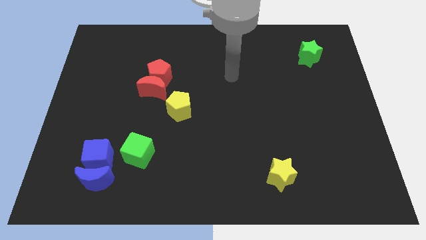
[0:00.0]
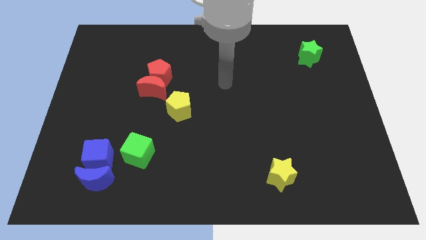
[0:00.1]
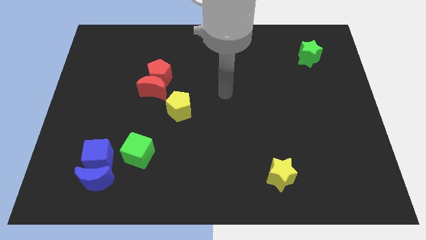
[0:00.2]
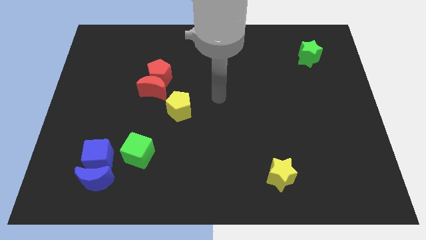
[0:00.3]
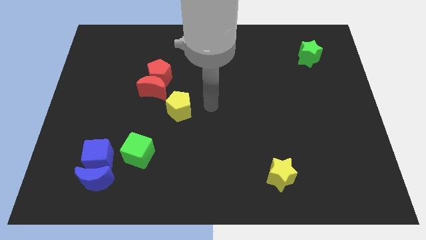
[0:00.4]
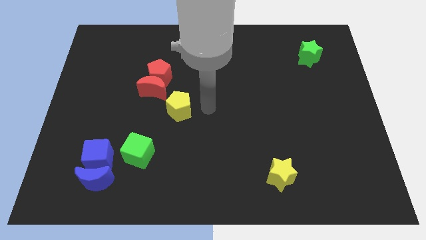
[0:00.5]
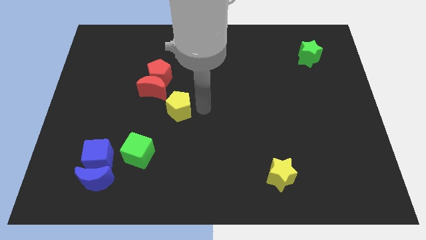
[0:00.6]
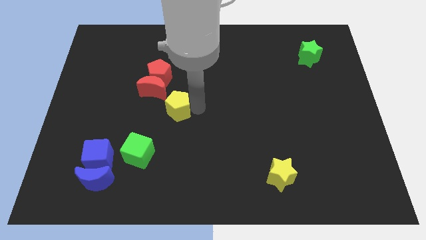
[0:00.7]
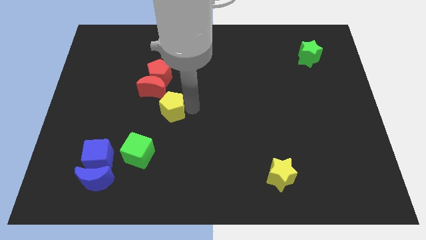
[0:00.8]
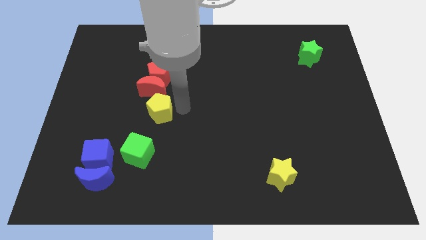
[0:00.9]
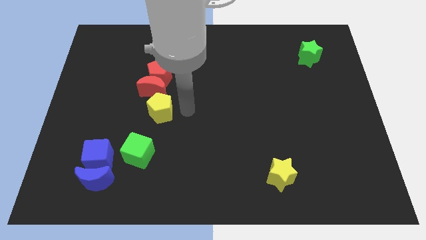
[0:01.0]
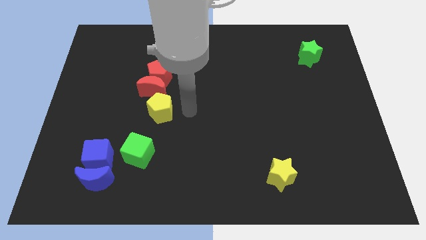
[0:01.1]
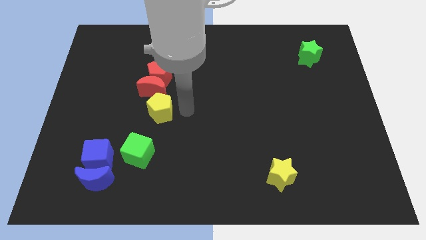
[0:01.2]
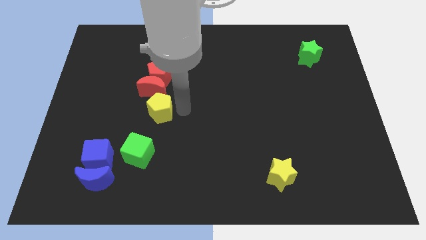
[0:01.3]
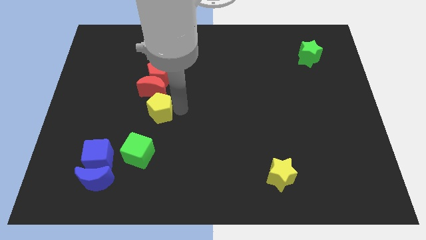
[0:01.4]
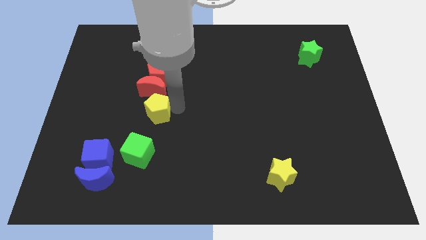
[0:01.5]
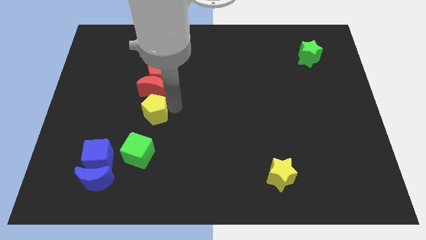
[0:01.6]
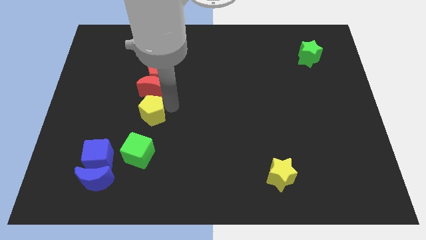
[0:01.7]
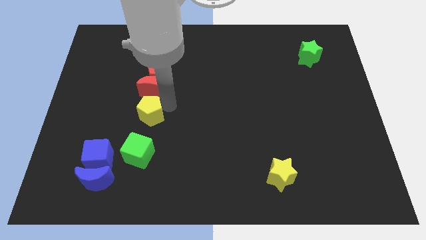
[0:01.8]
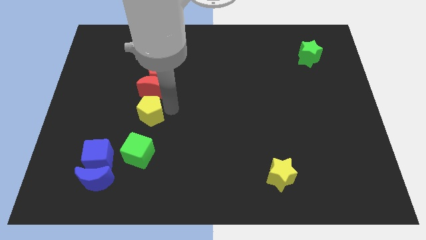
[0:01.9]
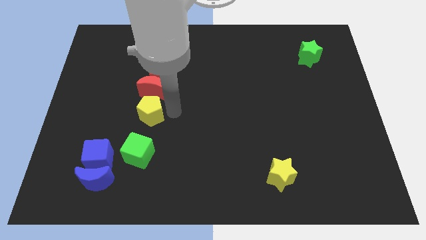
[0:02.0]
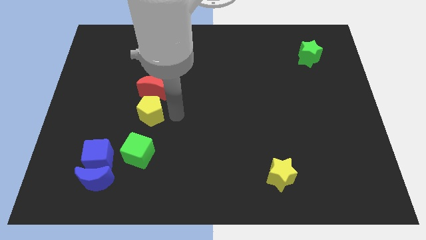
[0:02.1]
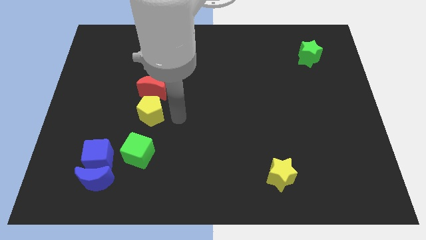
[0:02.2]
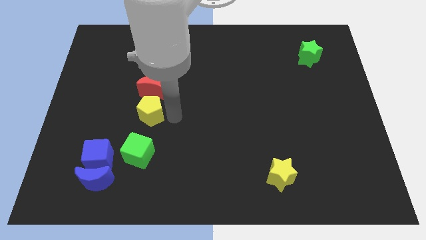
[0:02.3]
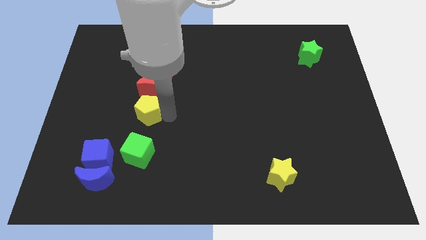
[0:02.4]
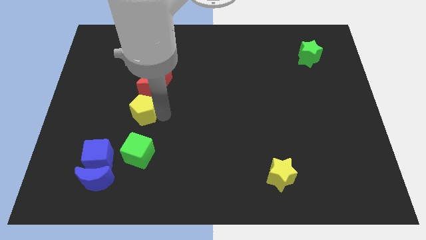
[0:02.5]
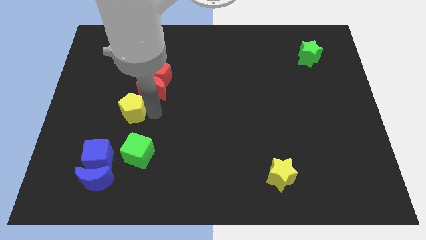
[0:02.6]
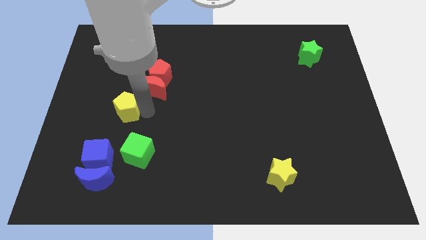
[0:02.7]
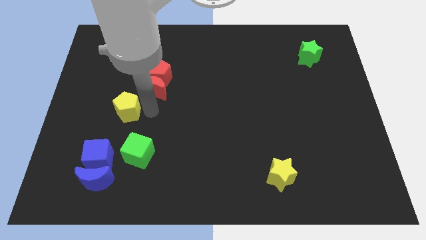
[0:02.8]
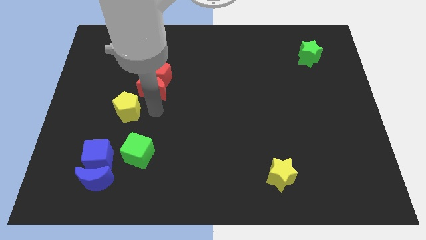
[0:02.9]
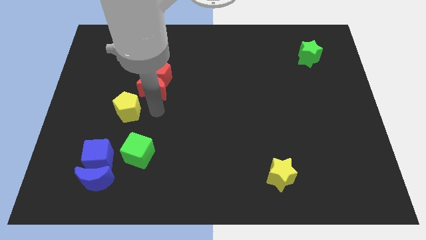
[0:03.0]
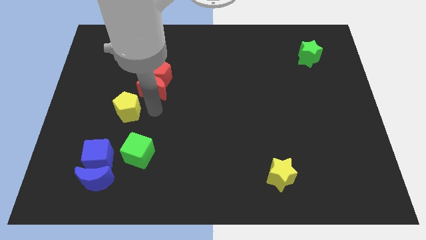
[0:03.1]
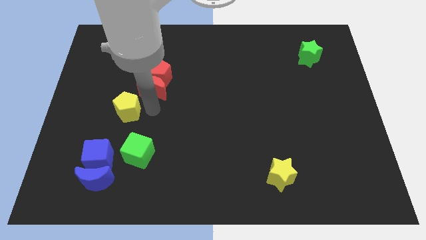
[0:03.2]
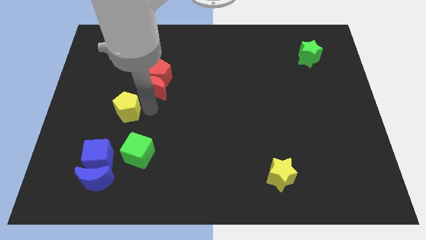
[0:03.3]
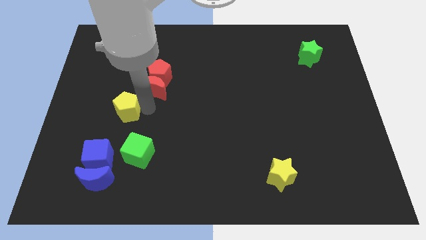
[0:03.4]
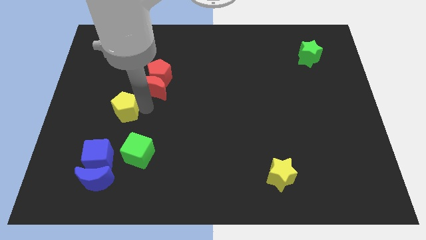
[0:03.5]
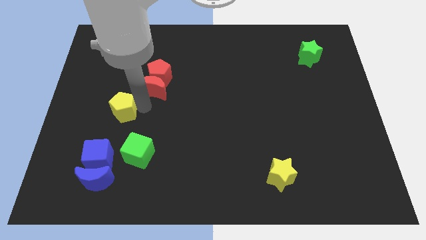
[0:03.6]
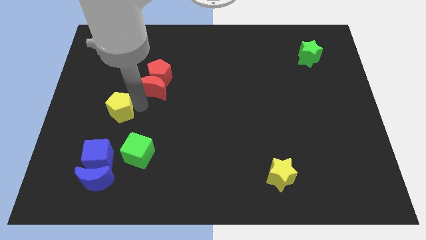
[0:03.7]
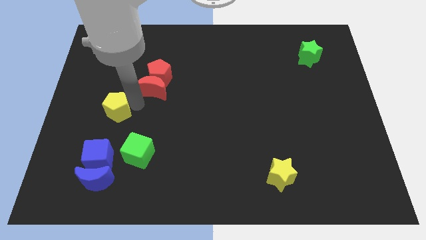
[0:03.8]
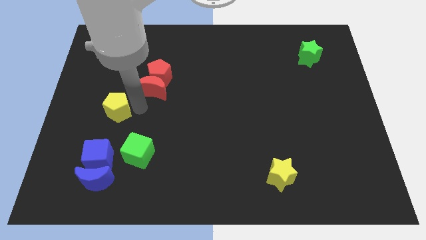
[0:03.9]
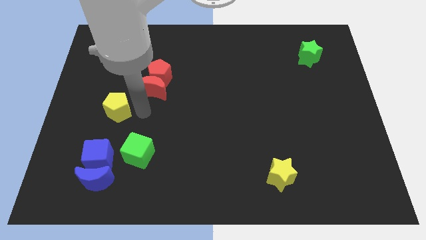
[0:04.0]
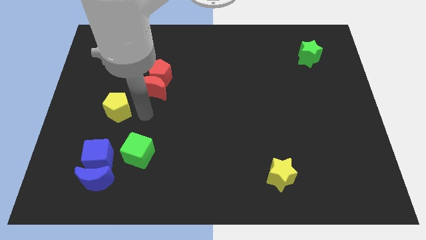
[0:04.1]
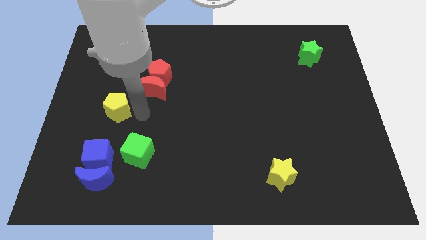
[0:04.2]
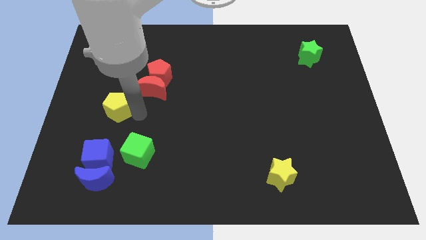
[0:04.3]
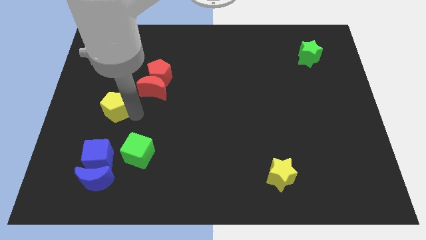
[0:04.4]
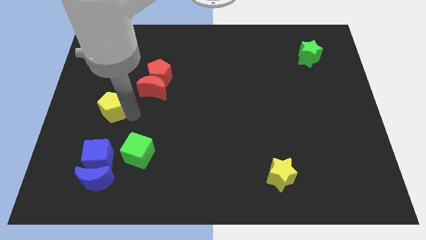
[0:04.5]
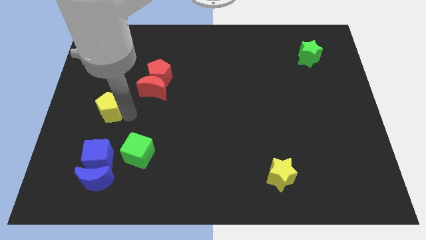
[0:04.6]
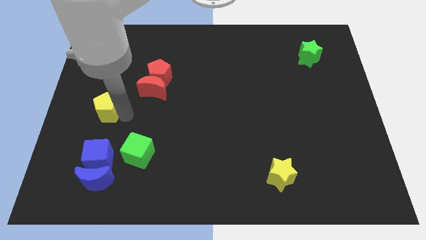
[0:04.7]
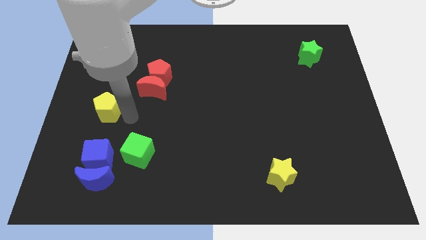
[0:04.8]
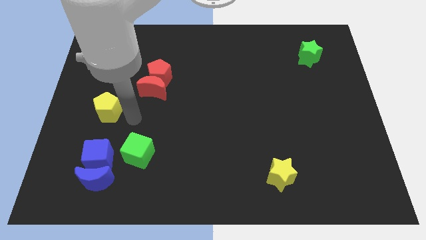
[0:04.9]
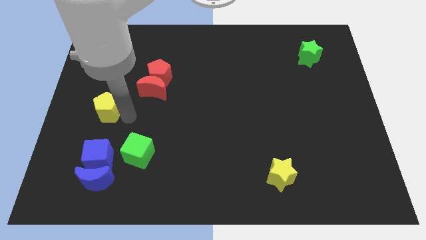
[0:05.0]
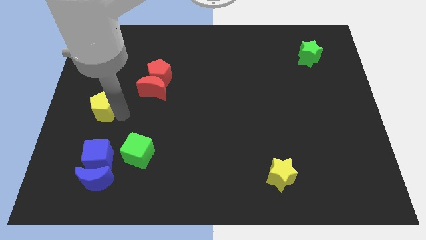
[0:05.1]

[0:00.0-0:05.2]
move the yellow pentagon to the center left

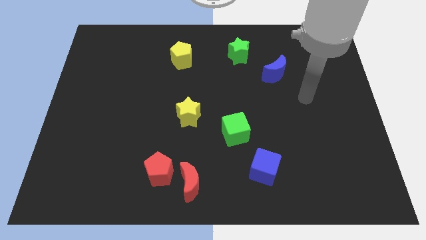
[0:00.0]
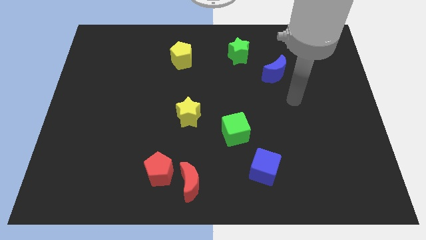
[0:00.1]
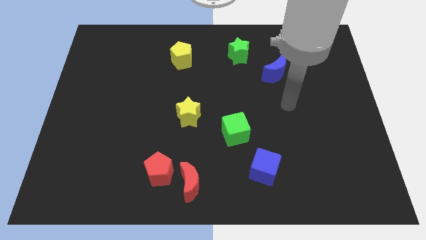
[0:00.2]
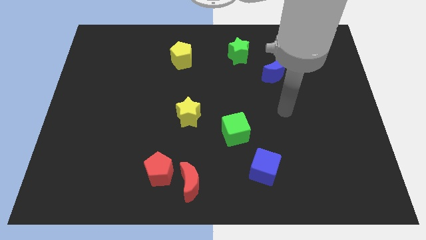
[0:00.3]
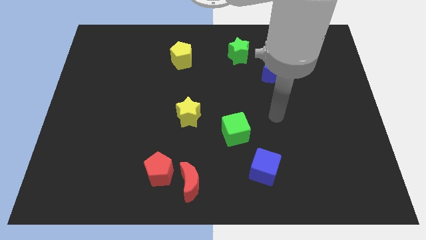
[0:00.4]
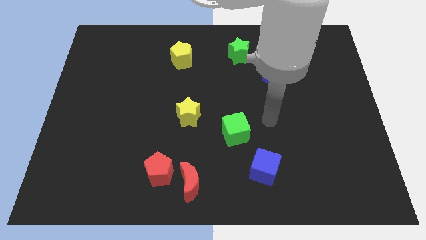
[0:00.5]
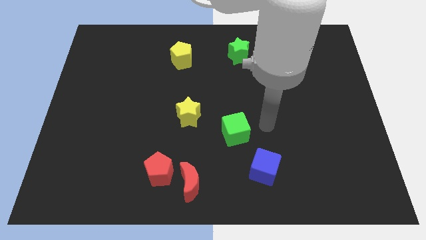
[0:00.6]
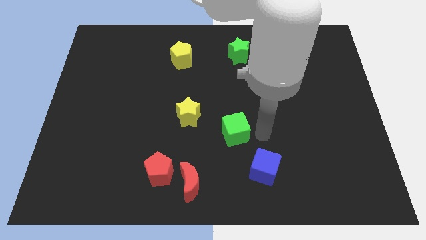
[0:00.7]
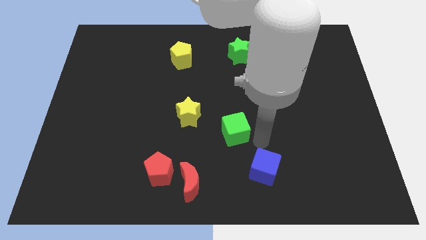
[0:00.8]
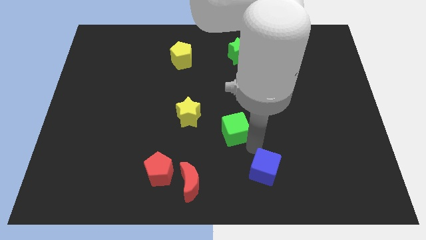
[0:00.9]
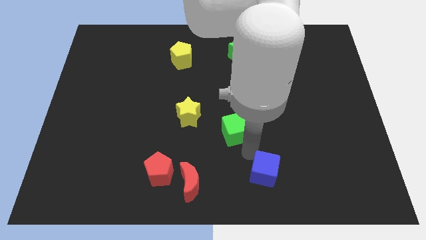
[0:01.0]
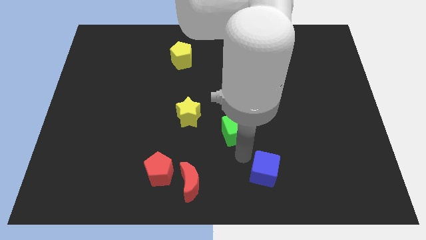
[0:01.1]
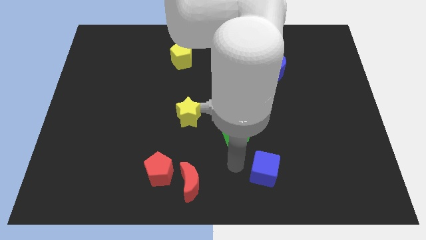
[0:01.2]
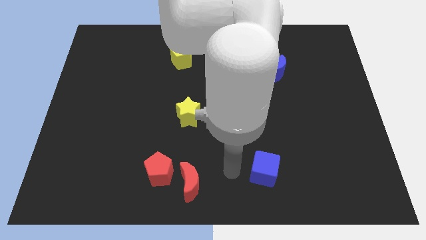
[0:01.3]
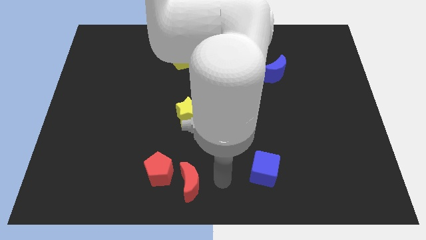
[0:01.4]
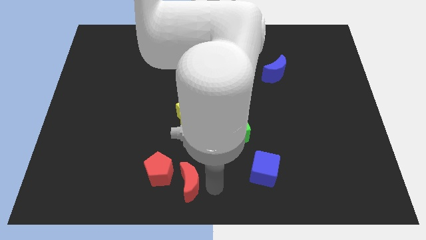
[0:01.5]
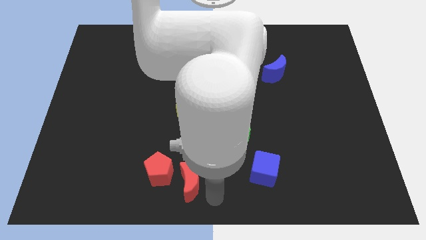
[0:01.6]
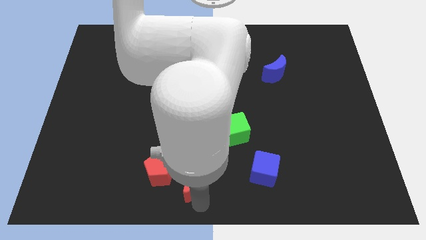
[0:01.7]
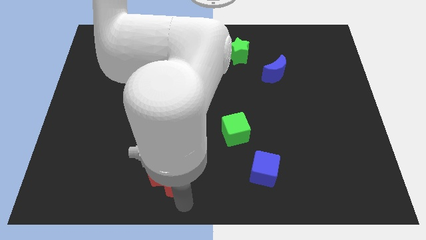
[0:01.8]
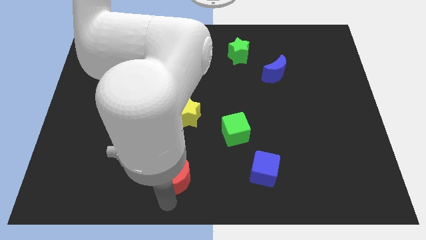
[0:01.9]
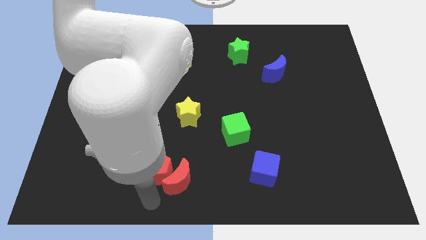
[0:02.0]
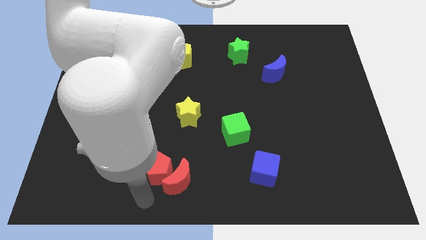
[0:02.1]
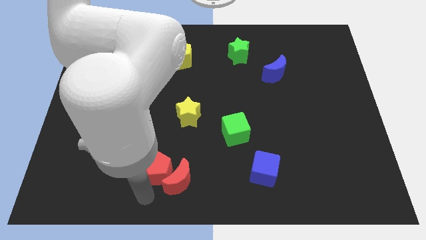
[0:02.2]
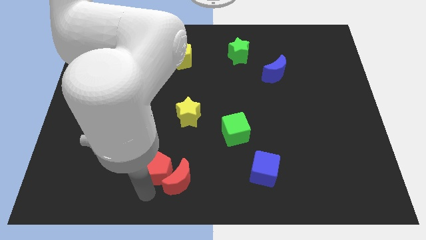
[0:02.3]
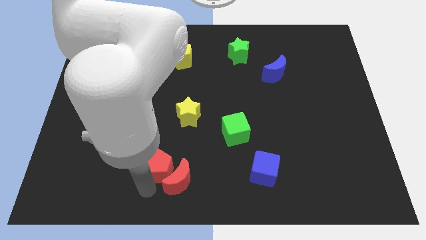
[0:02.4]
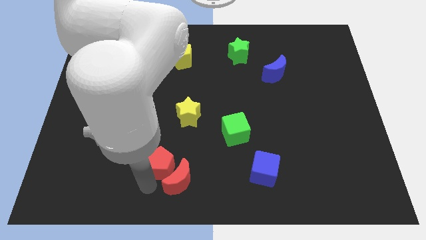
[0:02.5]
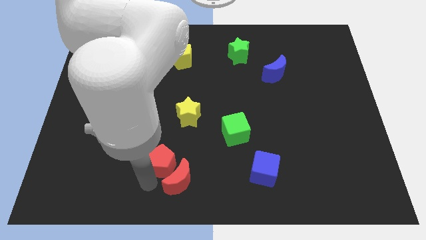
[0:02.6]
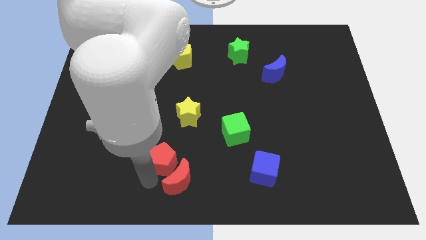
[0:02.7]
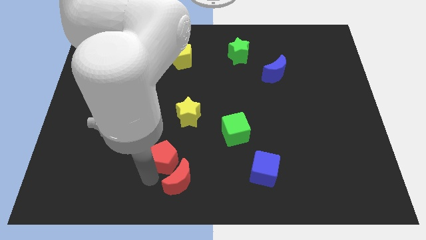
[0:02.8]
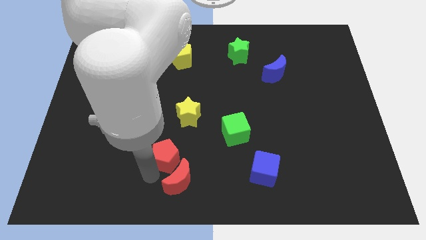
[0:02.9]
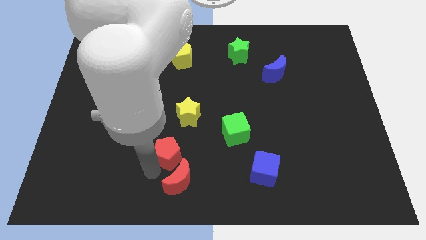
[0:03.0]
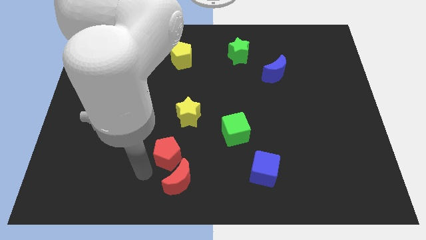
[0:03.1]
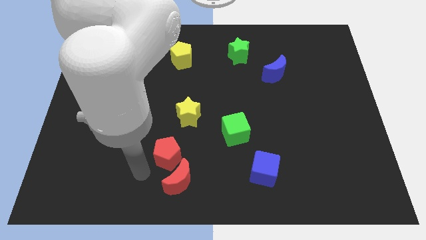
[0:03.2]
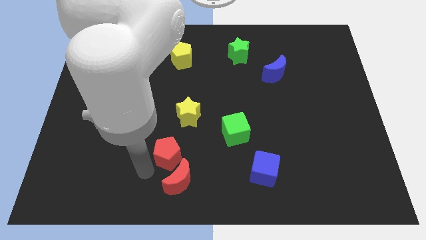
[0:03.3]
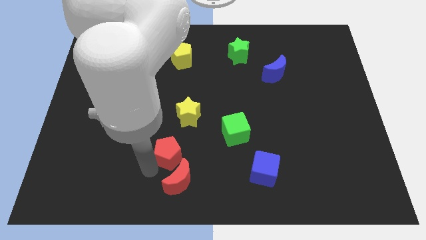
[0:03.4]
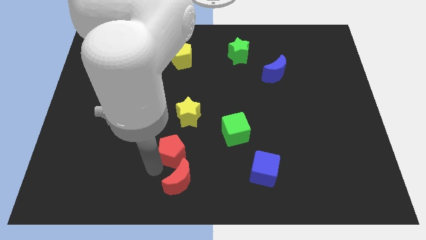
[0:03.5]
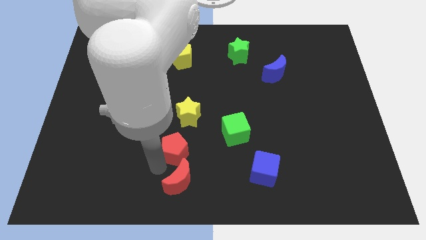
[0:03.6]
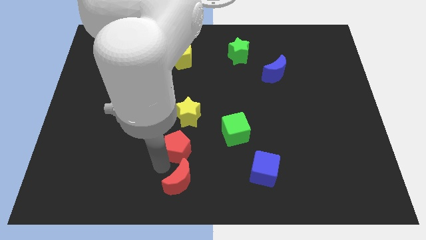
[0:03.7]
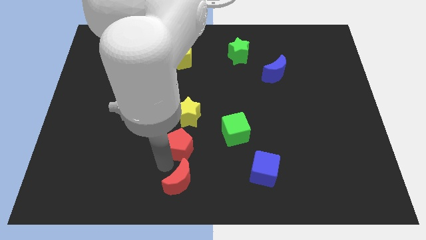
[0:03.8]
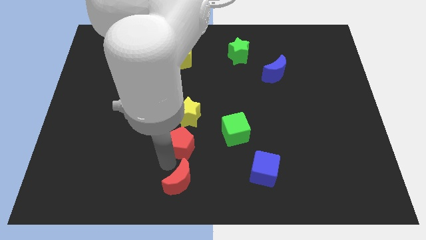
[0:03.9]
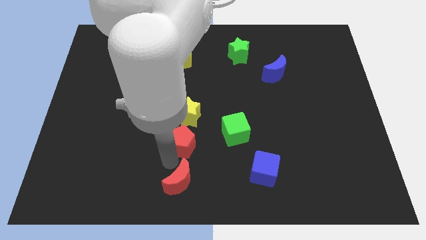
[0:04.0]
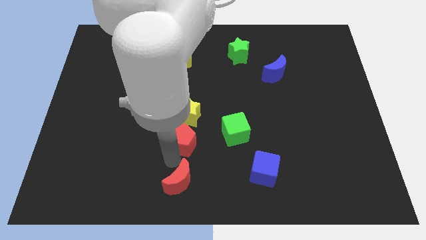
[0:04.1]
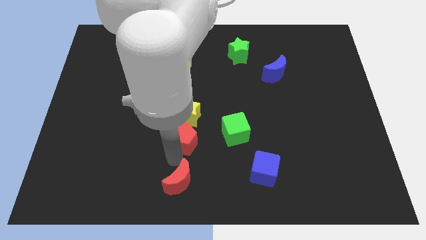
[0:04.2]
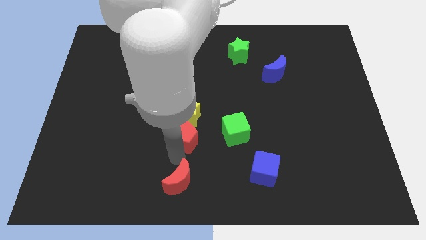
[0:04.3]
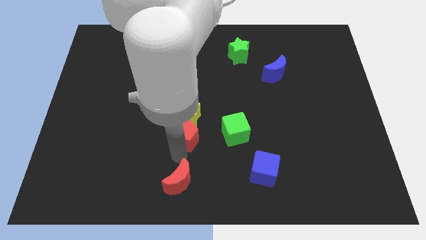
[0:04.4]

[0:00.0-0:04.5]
push the red pentagon to the center
